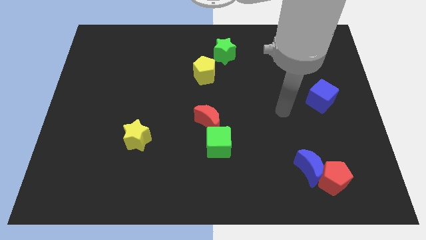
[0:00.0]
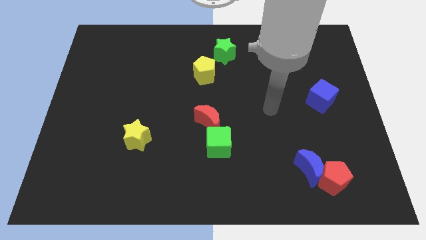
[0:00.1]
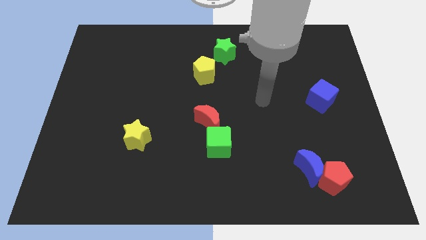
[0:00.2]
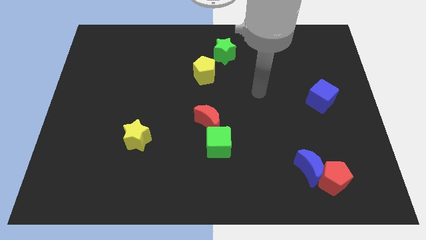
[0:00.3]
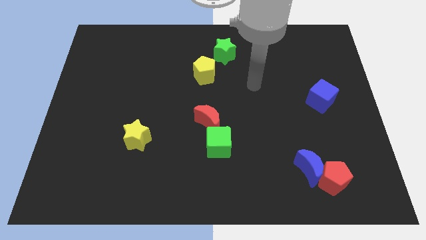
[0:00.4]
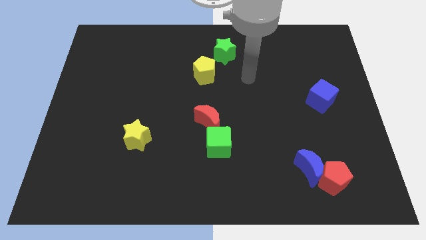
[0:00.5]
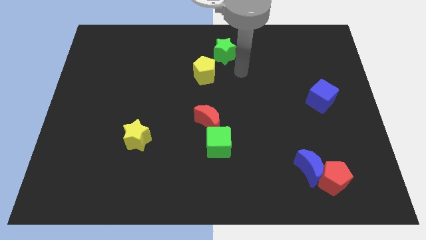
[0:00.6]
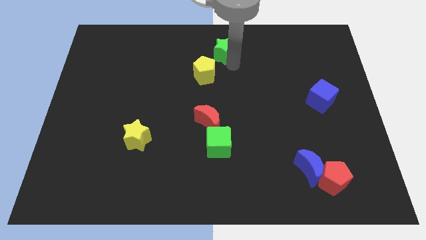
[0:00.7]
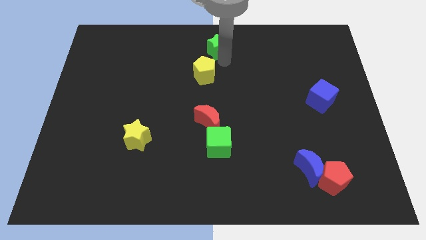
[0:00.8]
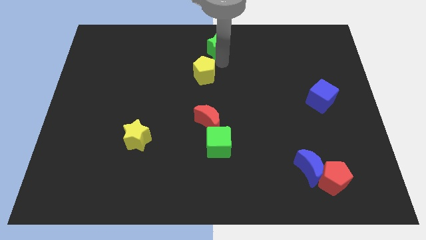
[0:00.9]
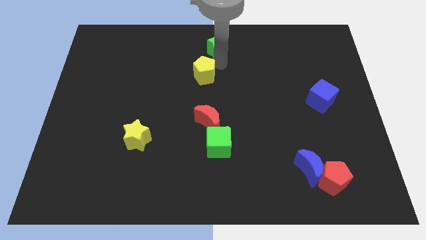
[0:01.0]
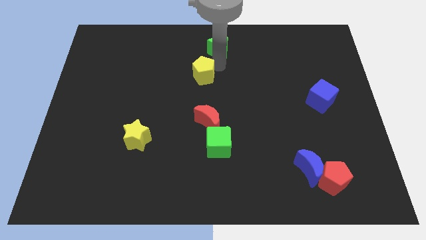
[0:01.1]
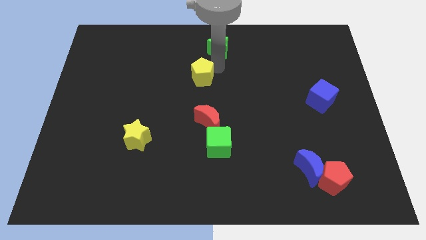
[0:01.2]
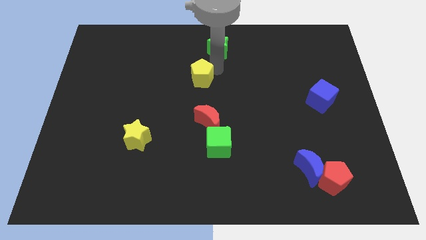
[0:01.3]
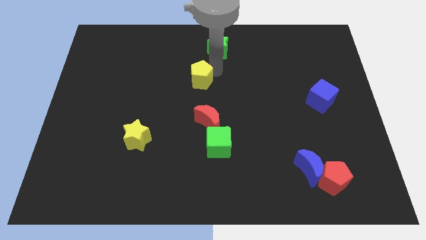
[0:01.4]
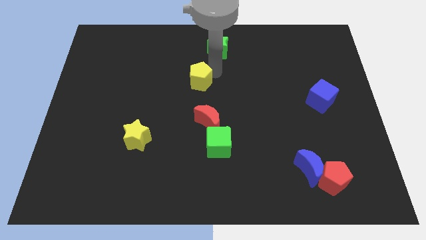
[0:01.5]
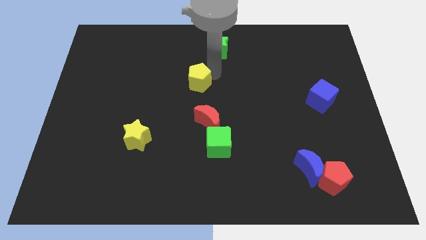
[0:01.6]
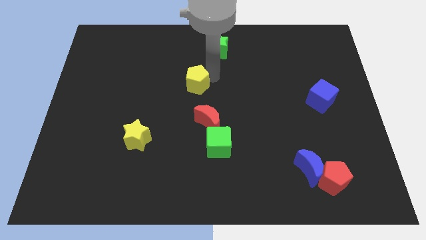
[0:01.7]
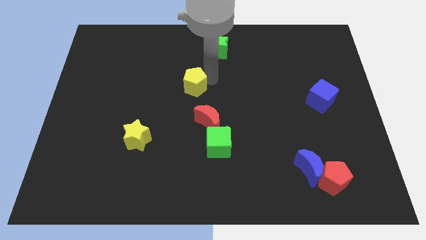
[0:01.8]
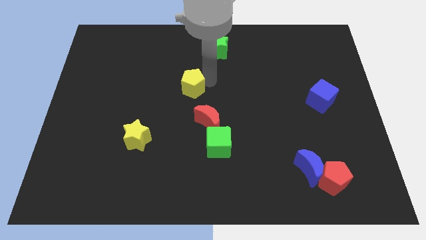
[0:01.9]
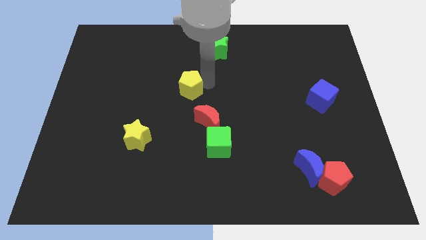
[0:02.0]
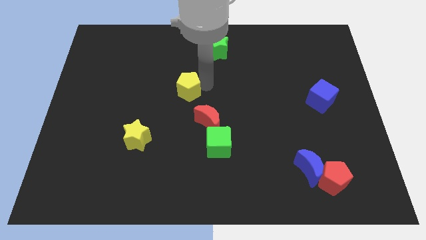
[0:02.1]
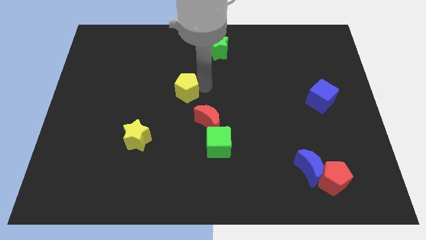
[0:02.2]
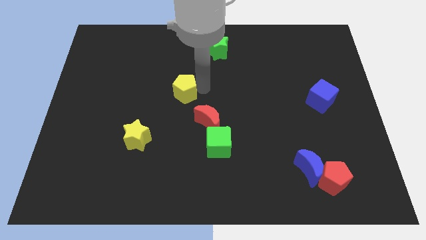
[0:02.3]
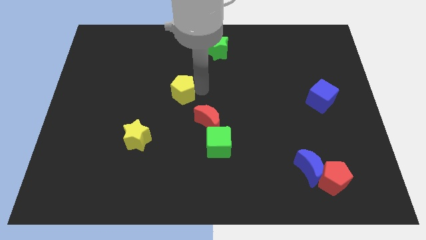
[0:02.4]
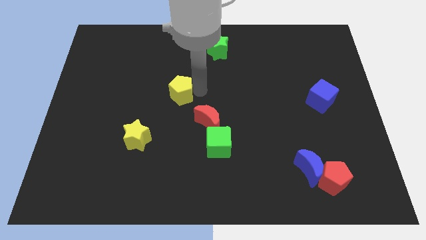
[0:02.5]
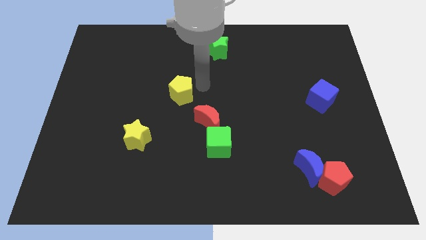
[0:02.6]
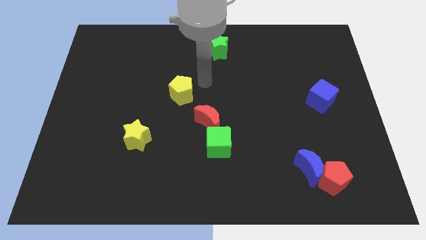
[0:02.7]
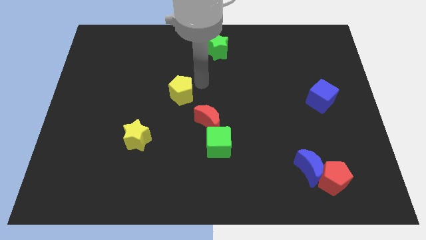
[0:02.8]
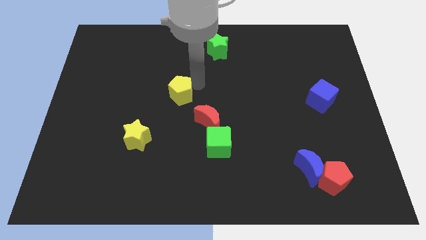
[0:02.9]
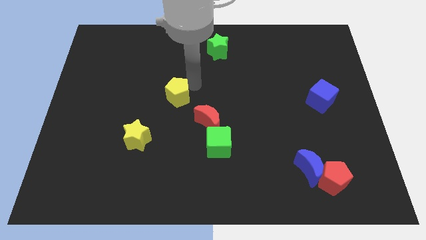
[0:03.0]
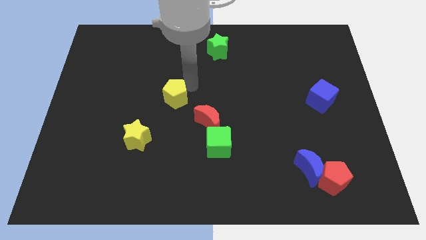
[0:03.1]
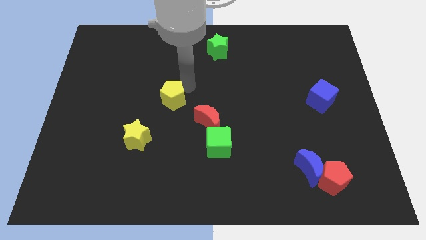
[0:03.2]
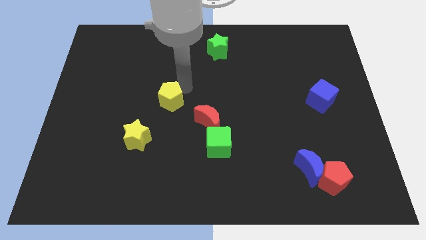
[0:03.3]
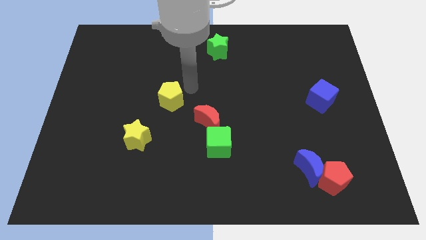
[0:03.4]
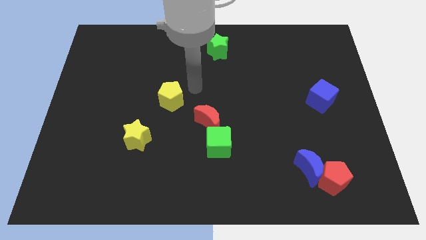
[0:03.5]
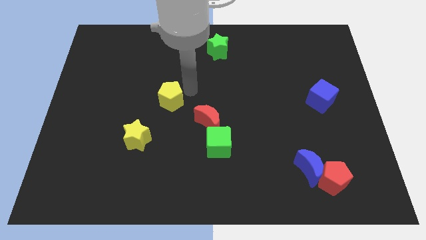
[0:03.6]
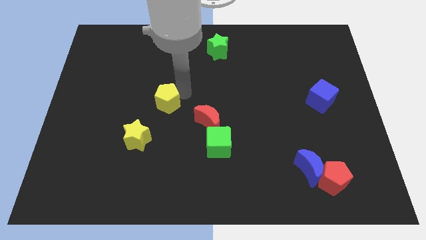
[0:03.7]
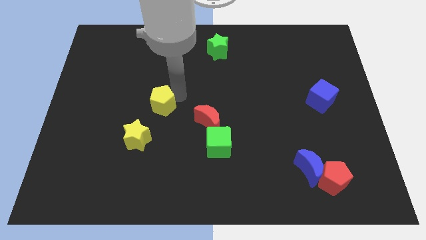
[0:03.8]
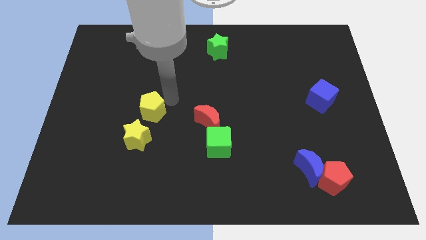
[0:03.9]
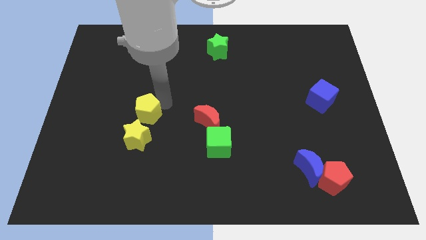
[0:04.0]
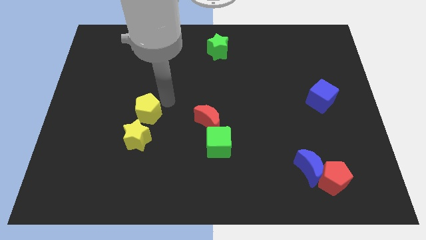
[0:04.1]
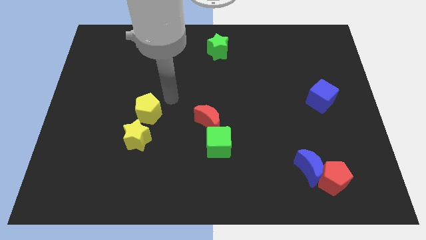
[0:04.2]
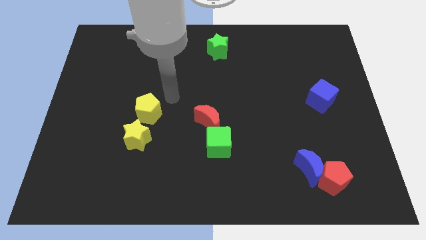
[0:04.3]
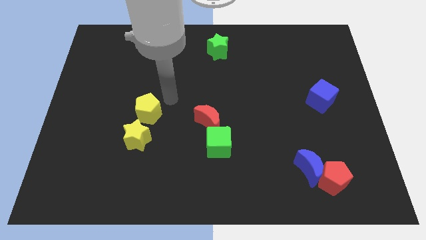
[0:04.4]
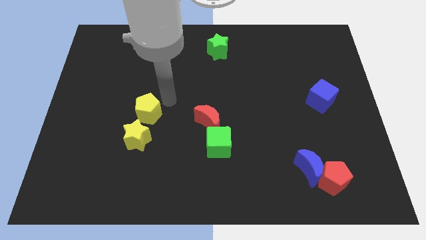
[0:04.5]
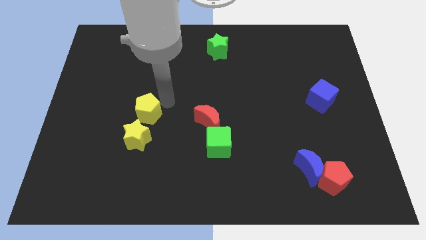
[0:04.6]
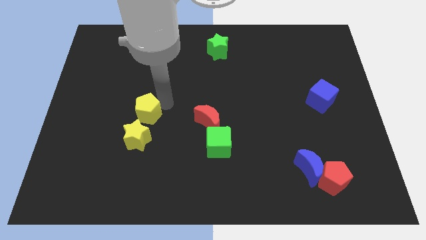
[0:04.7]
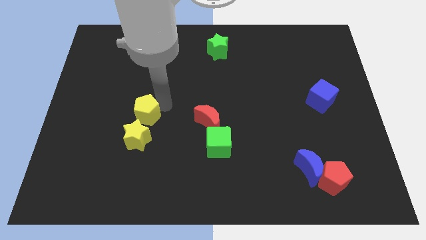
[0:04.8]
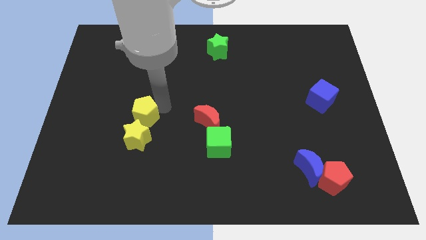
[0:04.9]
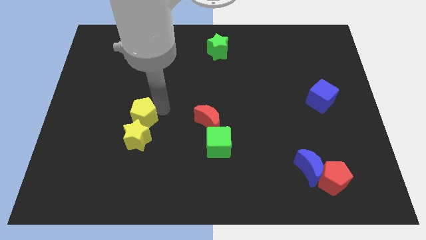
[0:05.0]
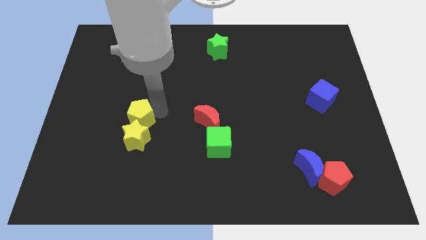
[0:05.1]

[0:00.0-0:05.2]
push the yellow pentagon downwards and to the left diagonally

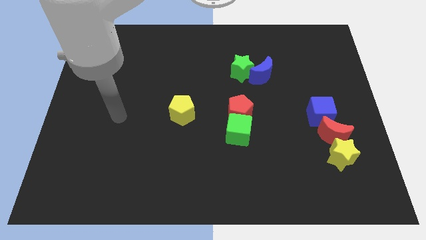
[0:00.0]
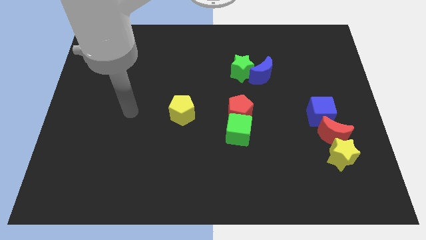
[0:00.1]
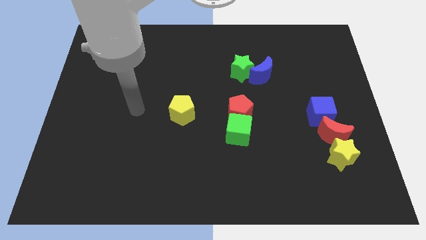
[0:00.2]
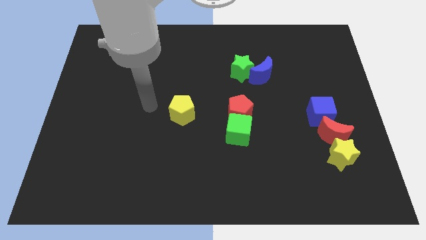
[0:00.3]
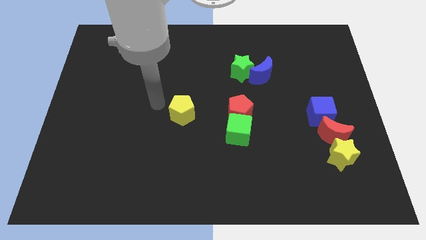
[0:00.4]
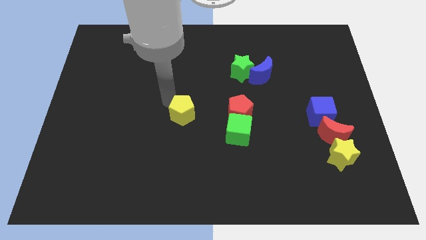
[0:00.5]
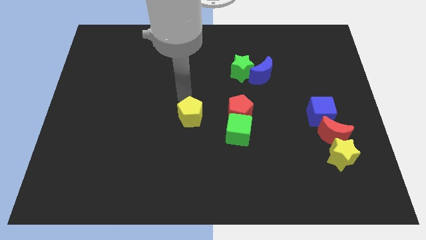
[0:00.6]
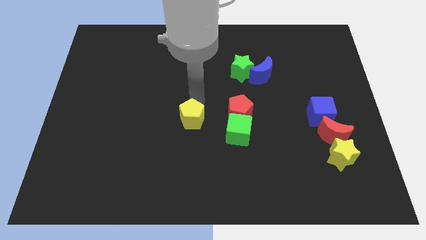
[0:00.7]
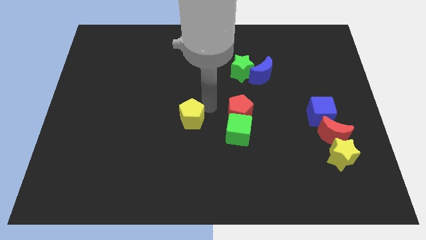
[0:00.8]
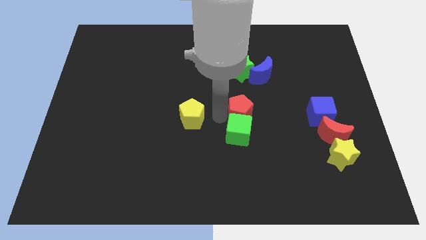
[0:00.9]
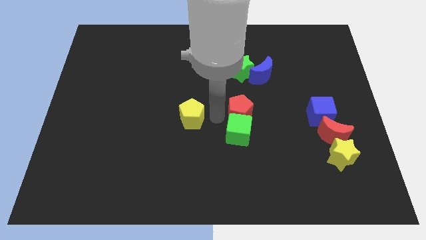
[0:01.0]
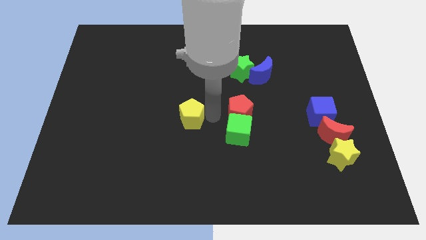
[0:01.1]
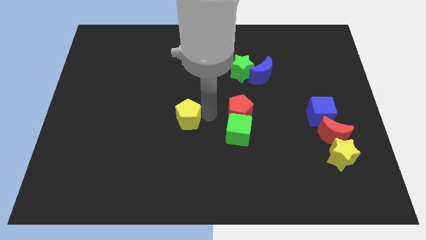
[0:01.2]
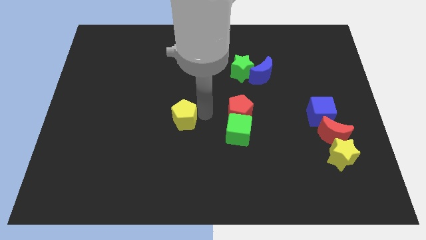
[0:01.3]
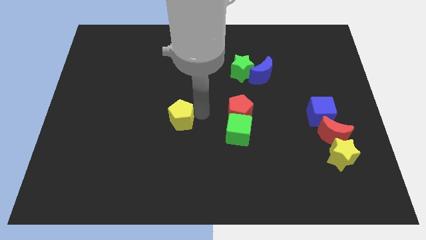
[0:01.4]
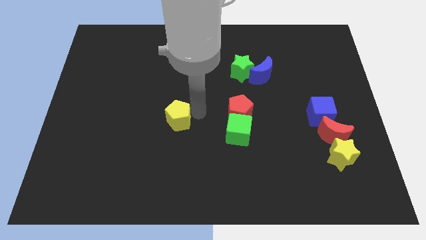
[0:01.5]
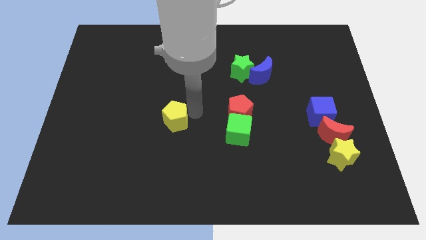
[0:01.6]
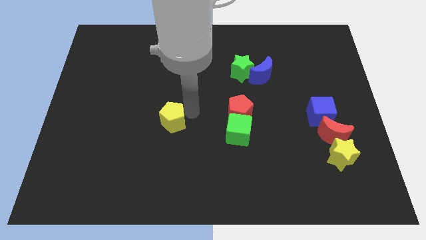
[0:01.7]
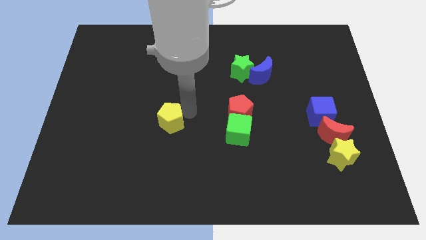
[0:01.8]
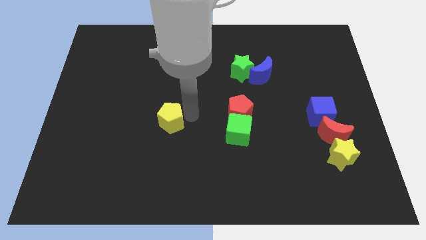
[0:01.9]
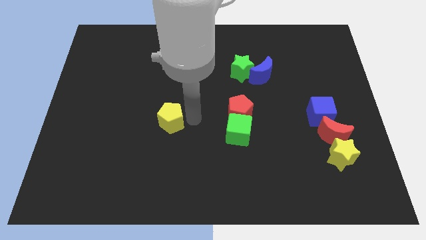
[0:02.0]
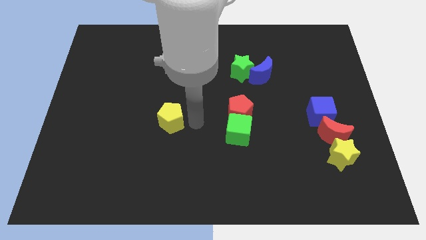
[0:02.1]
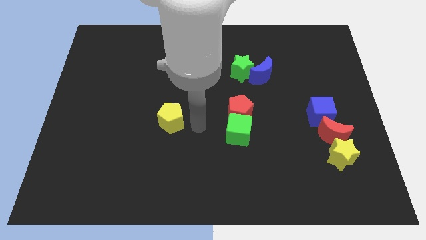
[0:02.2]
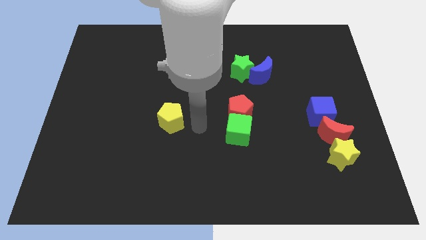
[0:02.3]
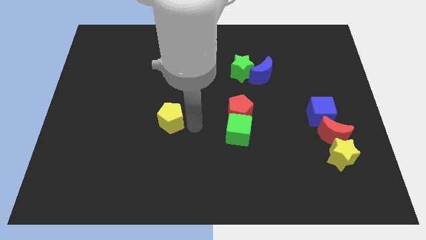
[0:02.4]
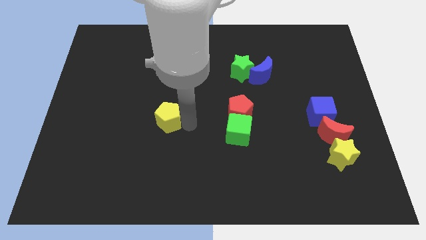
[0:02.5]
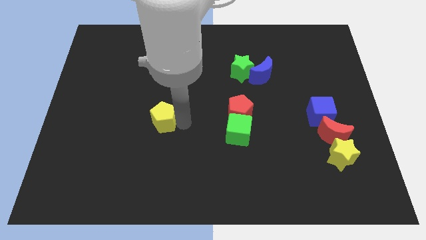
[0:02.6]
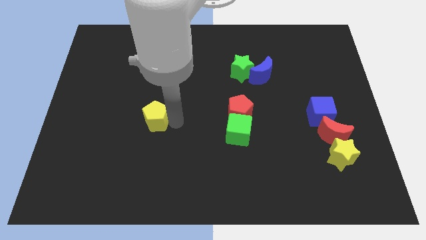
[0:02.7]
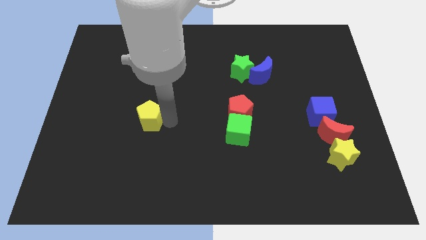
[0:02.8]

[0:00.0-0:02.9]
slightly push the yellow pentagon left
